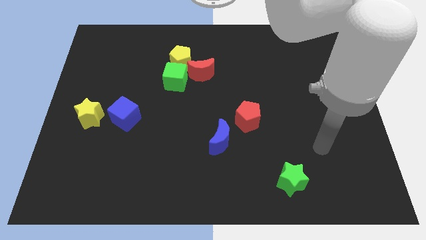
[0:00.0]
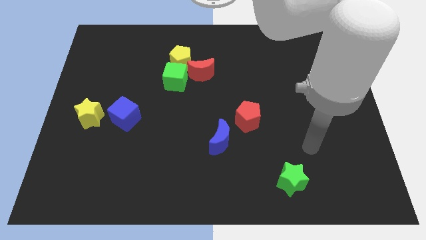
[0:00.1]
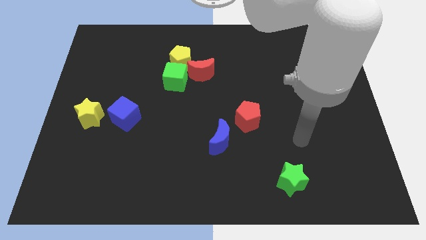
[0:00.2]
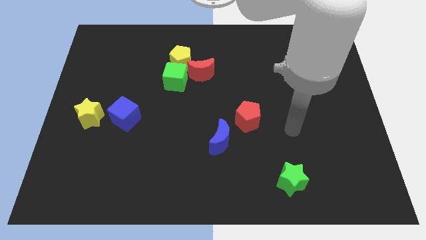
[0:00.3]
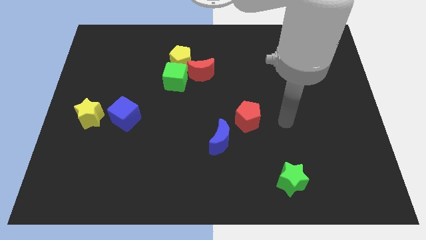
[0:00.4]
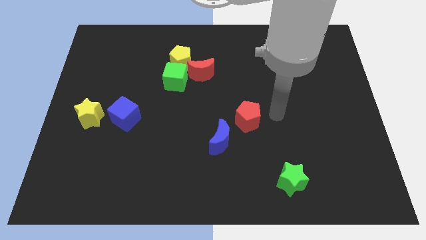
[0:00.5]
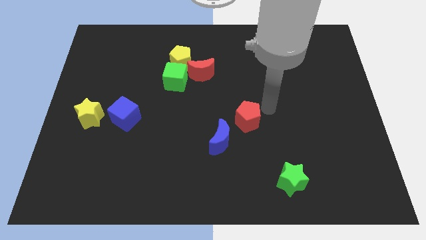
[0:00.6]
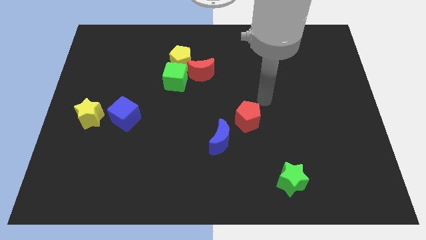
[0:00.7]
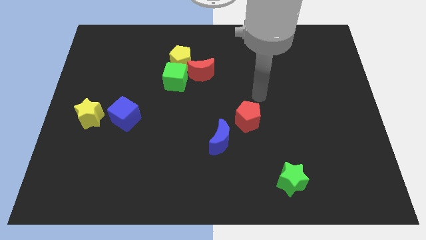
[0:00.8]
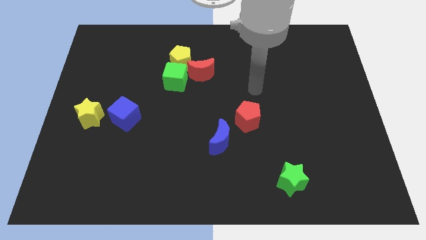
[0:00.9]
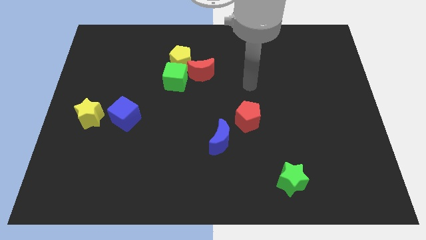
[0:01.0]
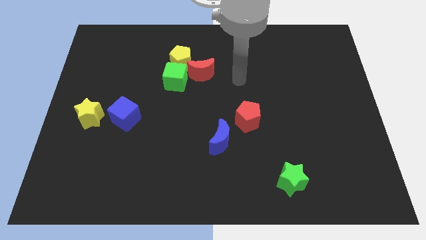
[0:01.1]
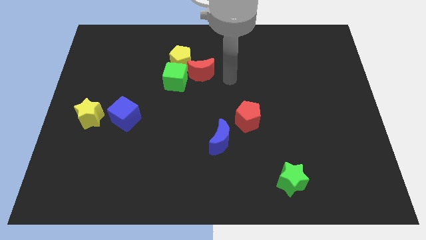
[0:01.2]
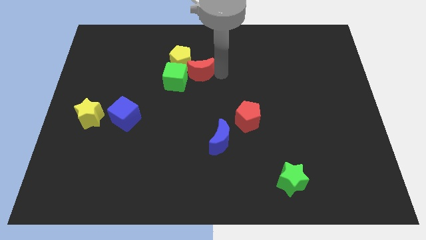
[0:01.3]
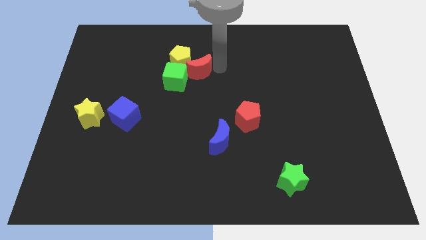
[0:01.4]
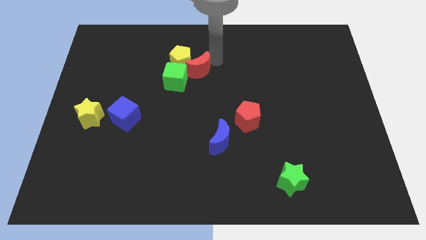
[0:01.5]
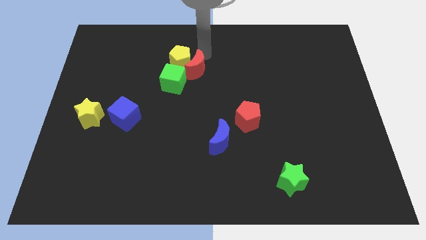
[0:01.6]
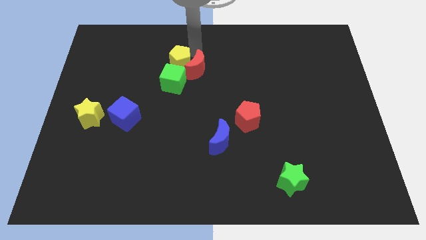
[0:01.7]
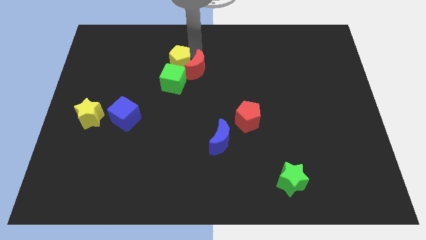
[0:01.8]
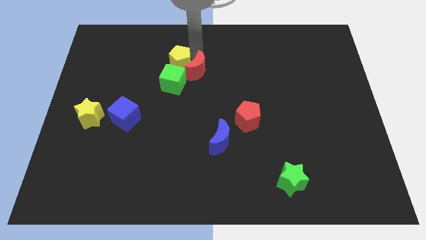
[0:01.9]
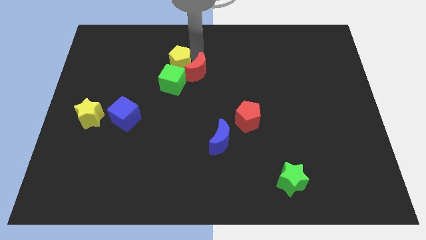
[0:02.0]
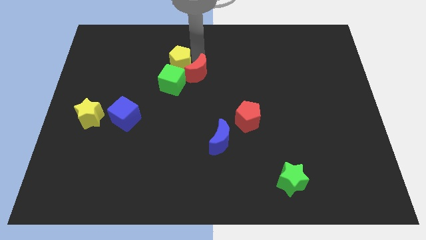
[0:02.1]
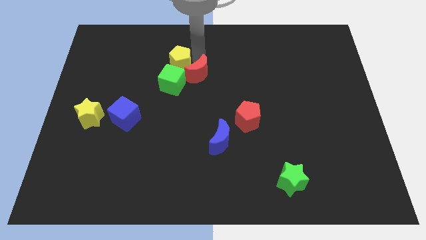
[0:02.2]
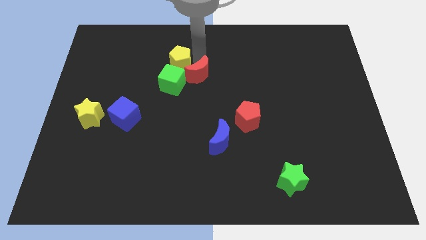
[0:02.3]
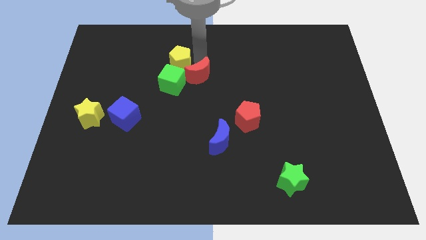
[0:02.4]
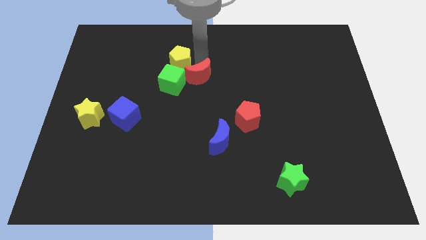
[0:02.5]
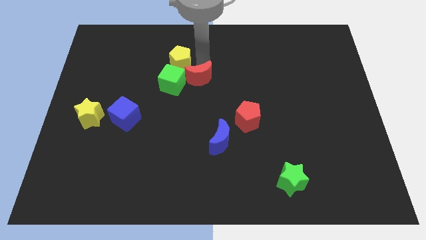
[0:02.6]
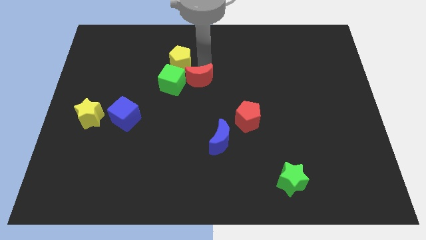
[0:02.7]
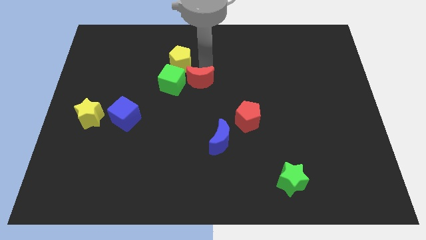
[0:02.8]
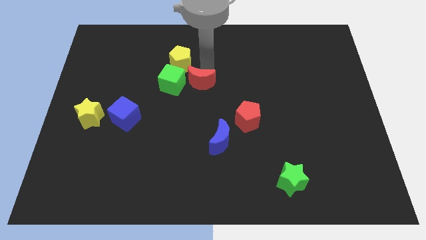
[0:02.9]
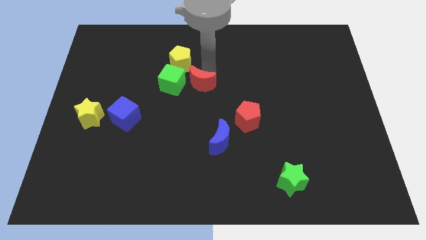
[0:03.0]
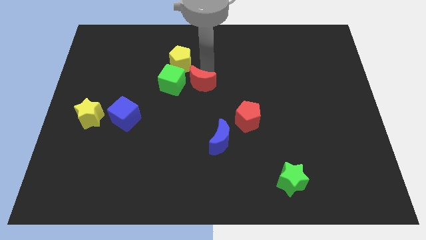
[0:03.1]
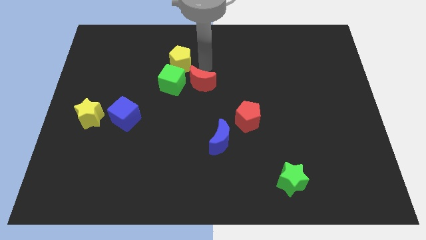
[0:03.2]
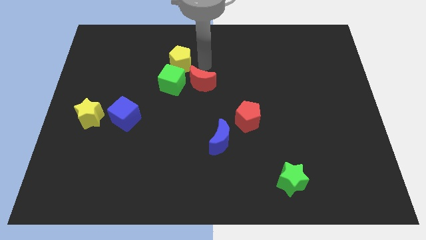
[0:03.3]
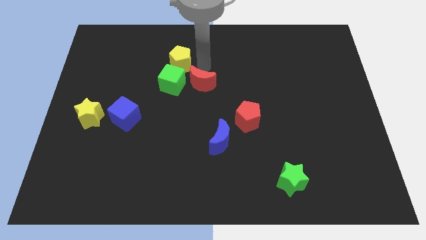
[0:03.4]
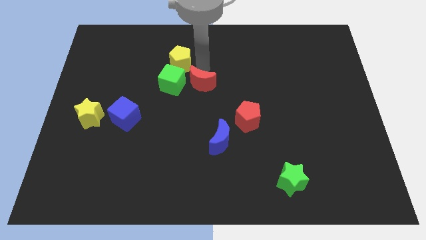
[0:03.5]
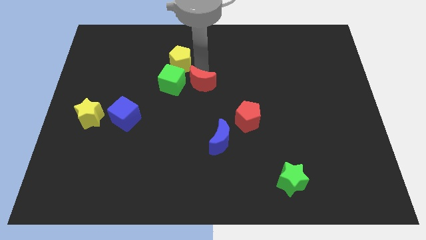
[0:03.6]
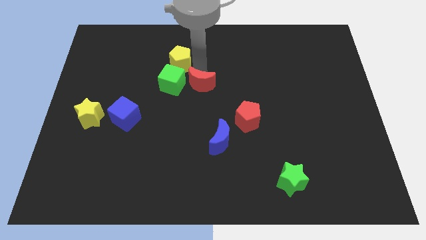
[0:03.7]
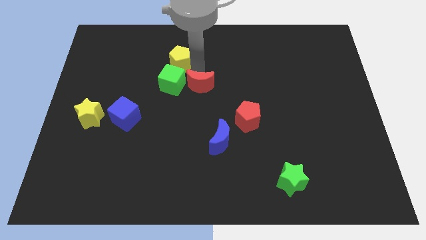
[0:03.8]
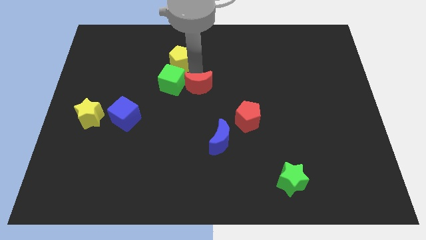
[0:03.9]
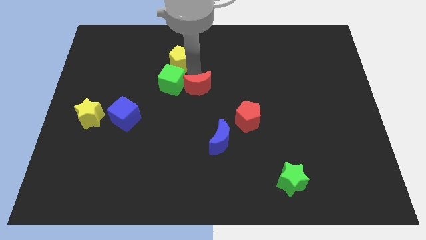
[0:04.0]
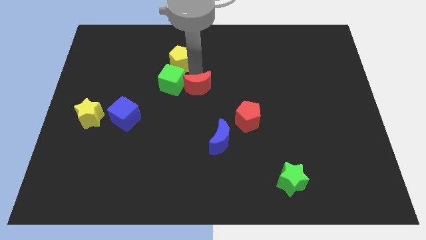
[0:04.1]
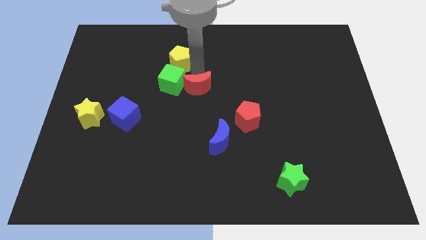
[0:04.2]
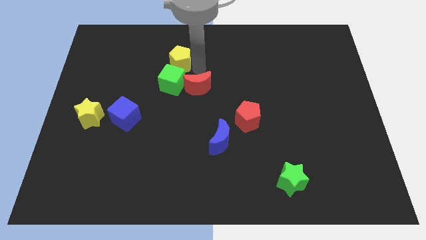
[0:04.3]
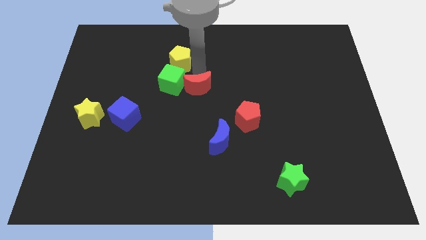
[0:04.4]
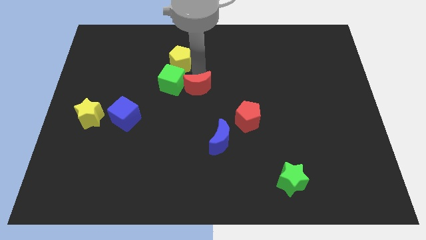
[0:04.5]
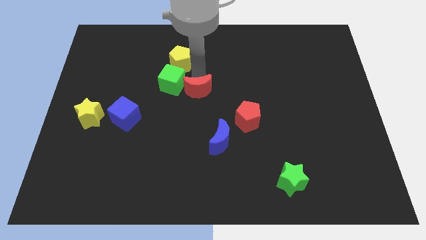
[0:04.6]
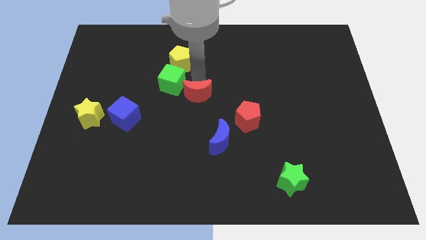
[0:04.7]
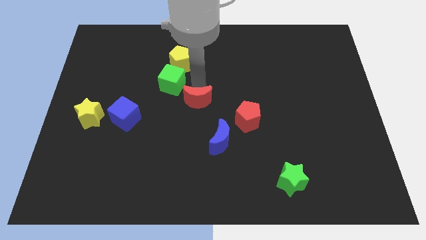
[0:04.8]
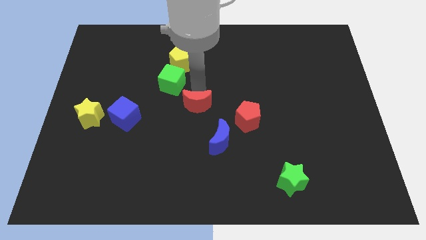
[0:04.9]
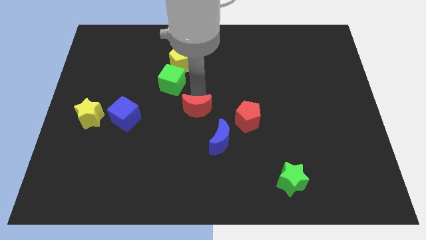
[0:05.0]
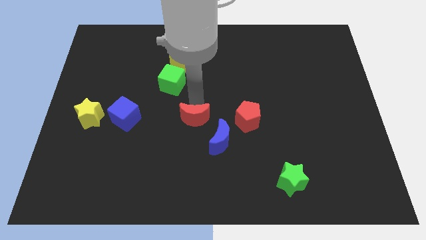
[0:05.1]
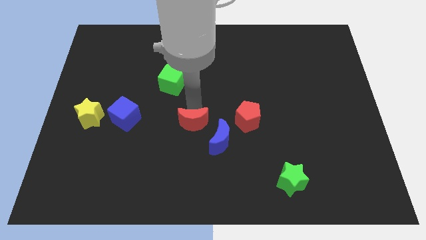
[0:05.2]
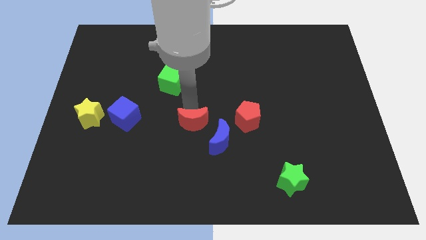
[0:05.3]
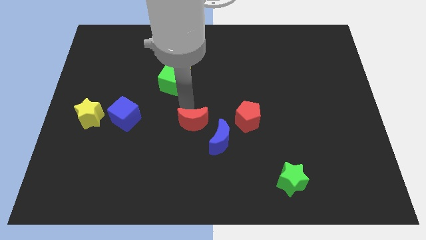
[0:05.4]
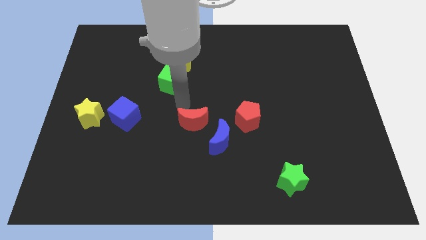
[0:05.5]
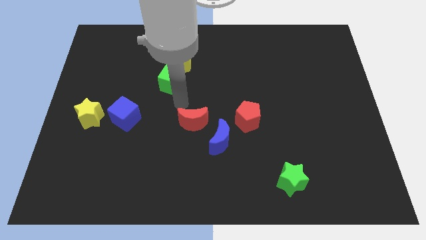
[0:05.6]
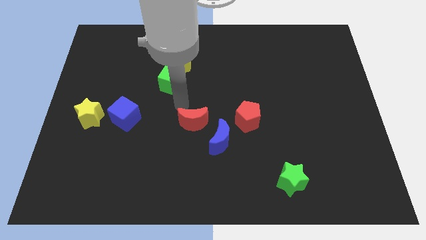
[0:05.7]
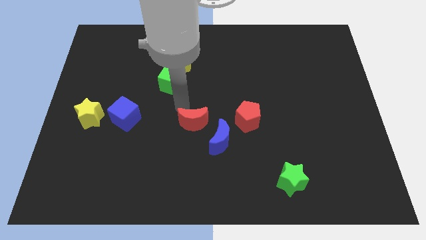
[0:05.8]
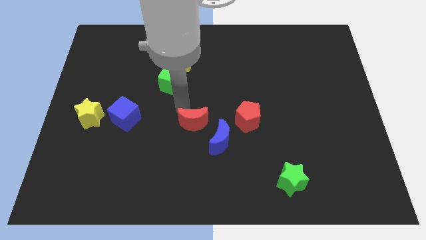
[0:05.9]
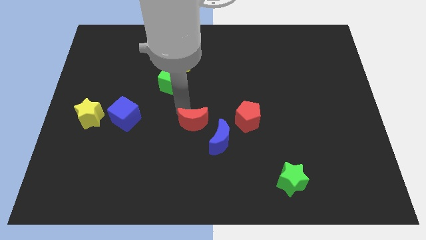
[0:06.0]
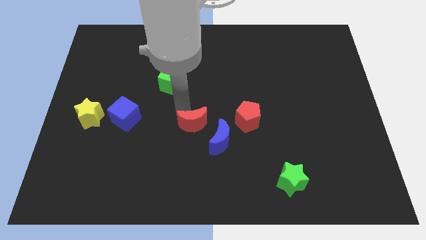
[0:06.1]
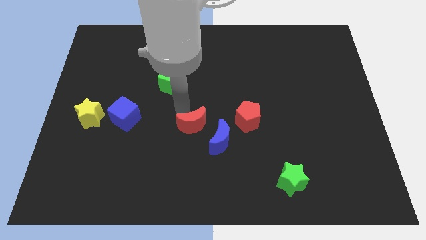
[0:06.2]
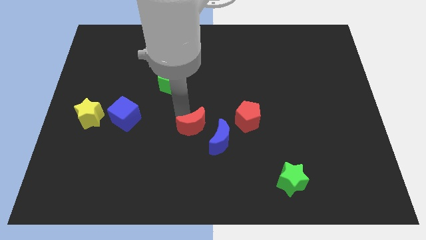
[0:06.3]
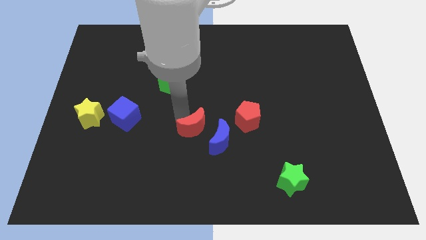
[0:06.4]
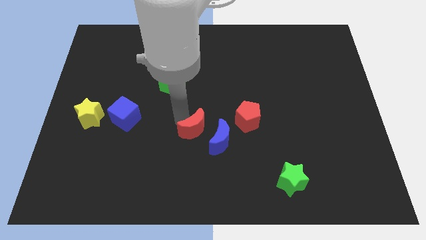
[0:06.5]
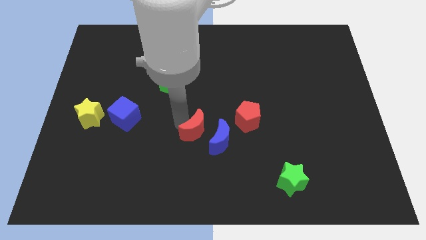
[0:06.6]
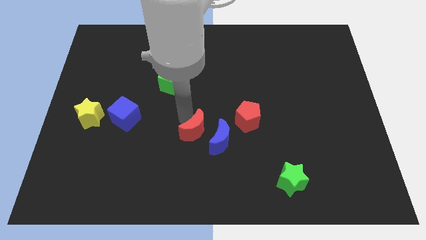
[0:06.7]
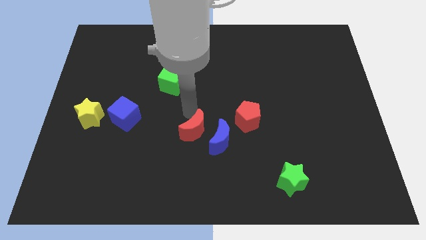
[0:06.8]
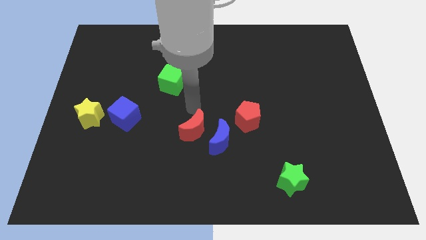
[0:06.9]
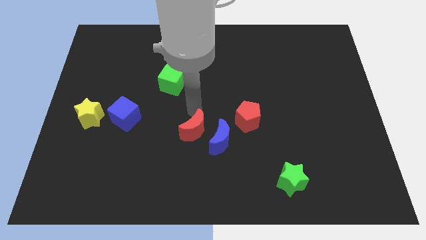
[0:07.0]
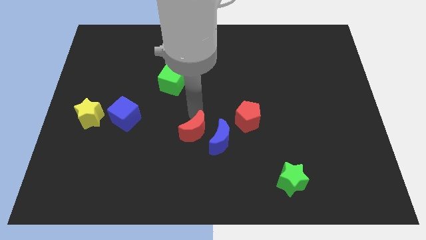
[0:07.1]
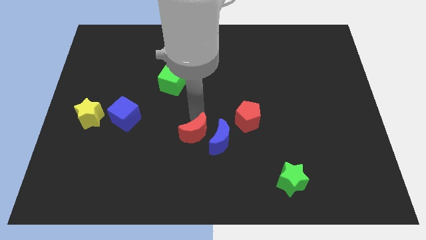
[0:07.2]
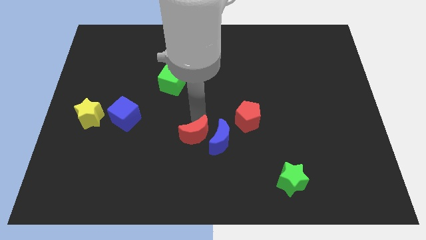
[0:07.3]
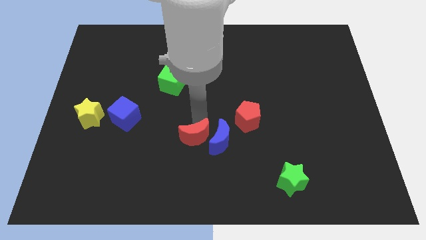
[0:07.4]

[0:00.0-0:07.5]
move the red moon to the bottom left side of the blue moon

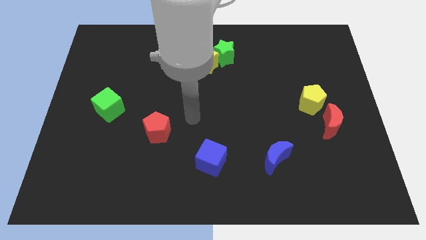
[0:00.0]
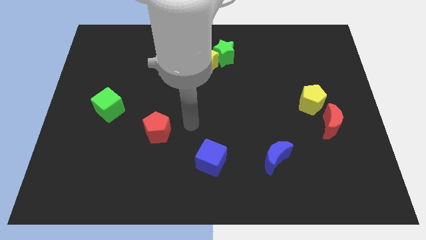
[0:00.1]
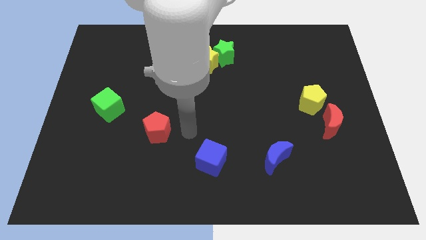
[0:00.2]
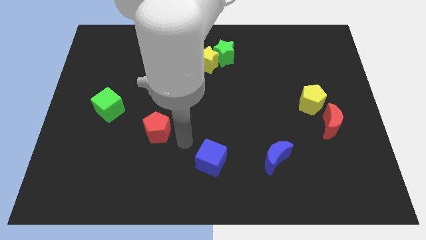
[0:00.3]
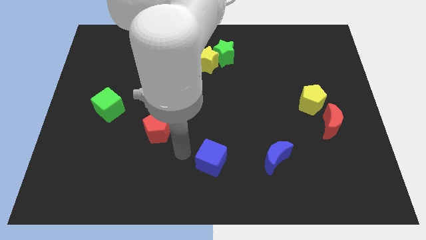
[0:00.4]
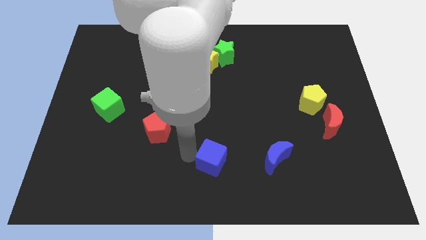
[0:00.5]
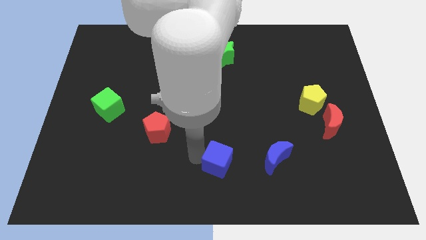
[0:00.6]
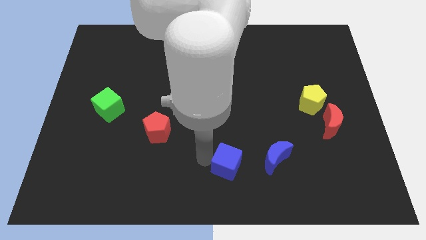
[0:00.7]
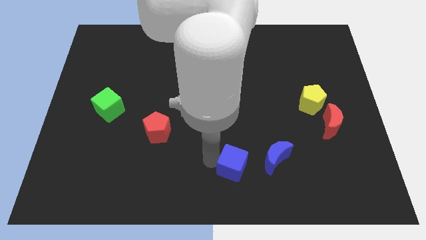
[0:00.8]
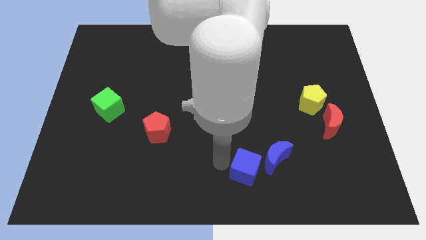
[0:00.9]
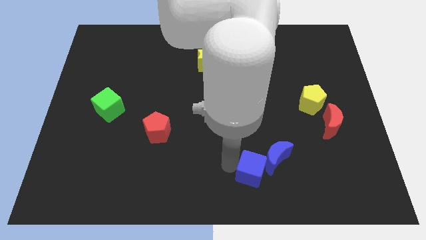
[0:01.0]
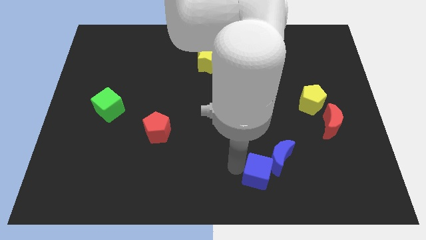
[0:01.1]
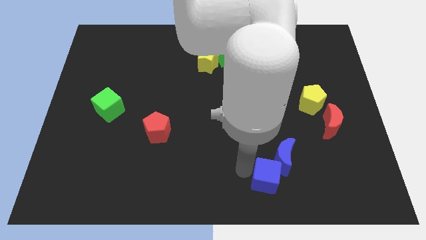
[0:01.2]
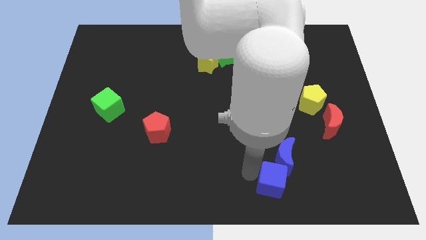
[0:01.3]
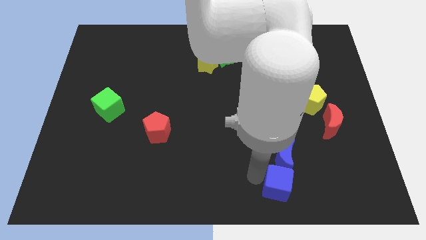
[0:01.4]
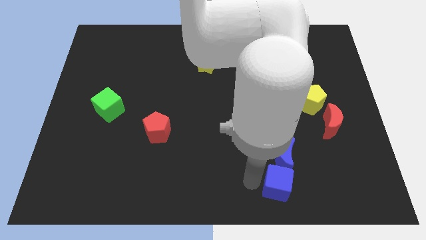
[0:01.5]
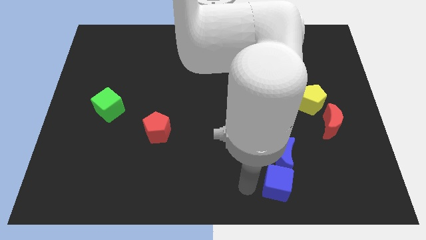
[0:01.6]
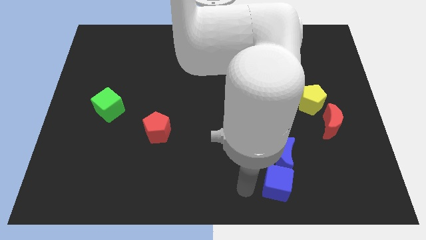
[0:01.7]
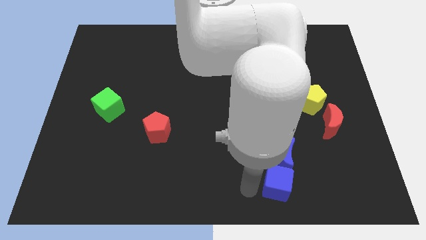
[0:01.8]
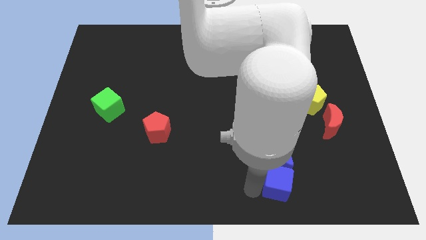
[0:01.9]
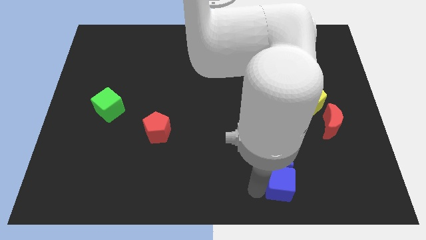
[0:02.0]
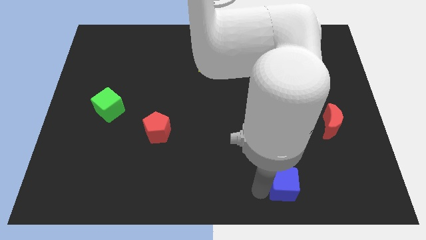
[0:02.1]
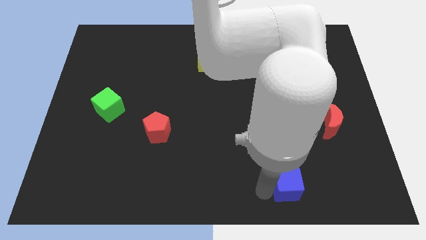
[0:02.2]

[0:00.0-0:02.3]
slide the blue cube to the bottom right side of the blue moon
